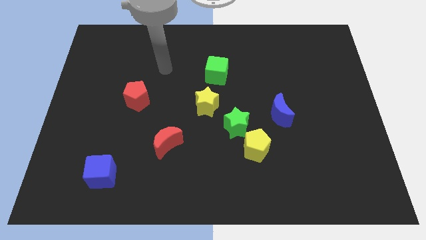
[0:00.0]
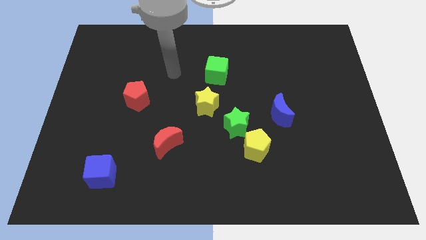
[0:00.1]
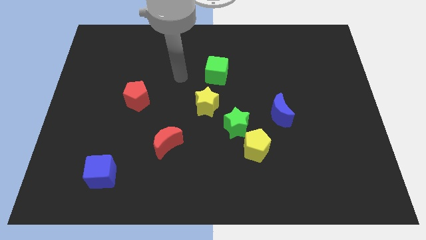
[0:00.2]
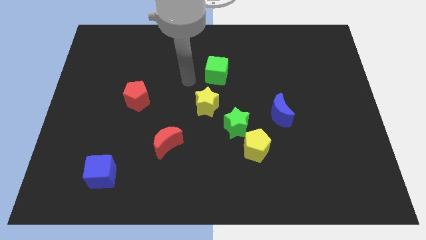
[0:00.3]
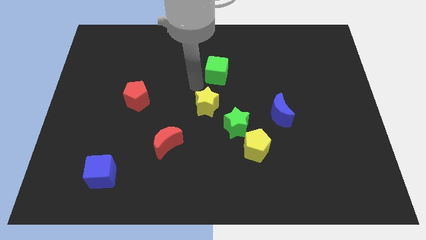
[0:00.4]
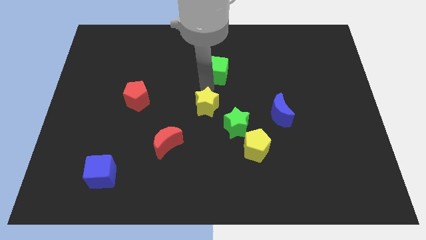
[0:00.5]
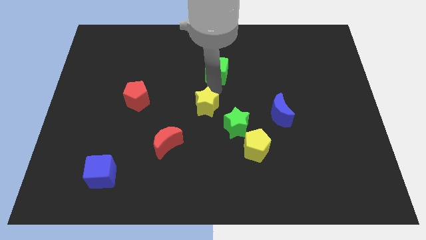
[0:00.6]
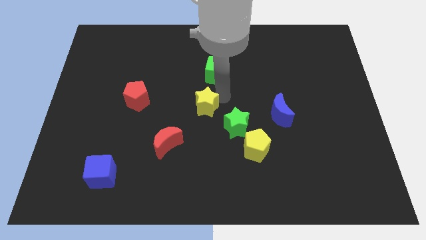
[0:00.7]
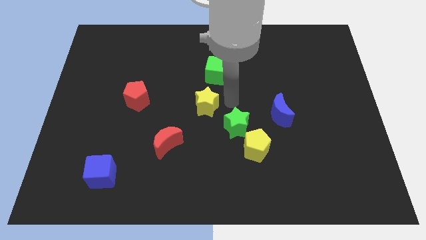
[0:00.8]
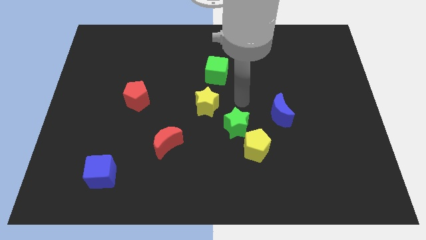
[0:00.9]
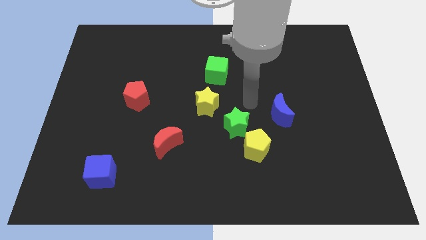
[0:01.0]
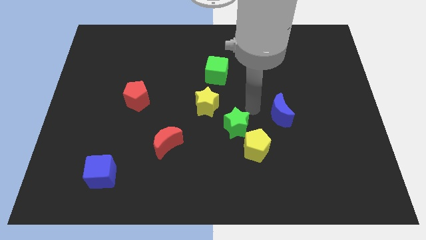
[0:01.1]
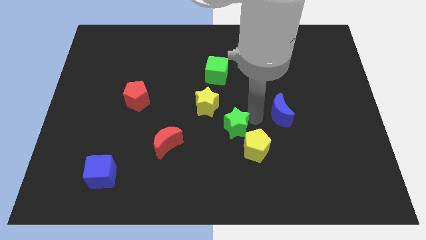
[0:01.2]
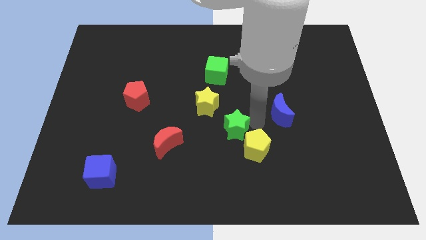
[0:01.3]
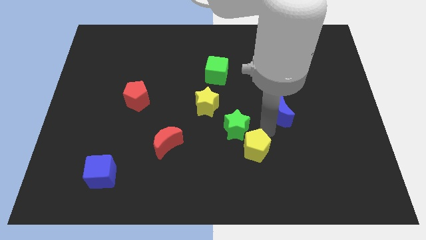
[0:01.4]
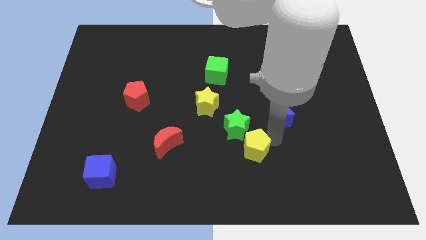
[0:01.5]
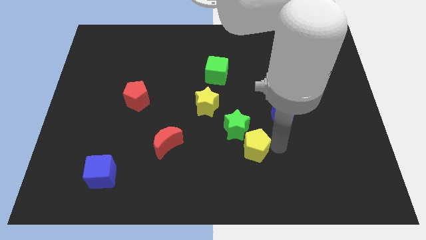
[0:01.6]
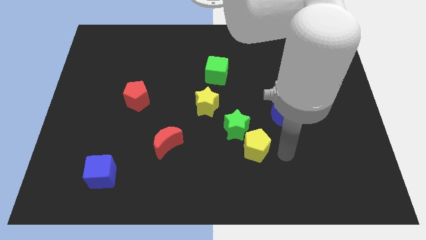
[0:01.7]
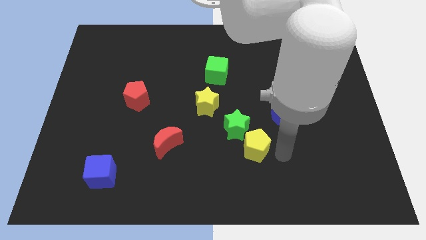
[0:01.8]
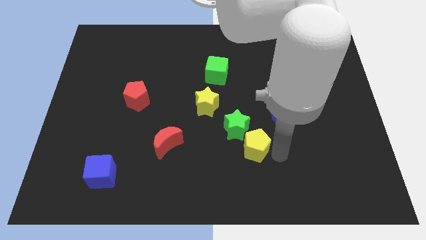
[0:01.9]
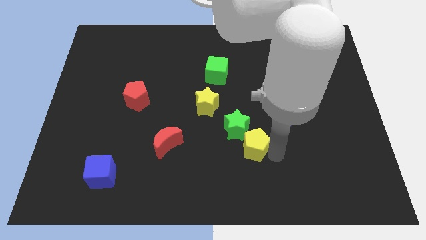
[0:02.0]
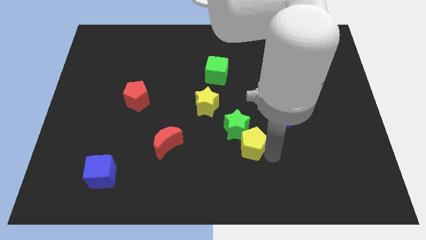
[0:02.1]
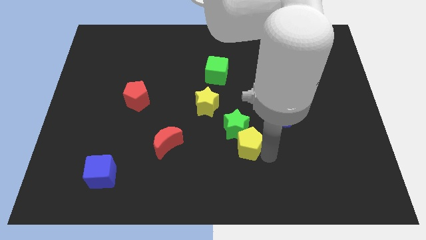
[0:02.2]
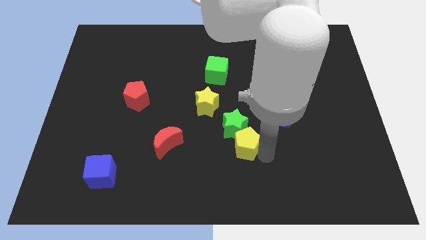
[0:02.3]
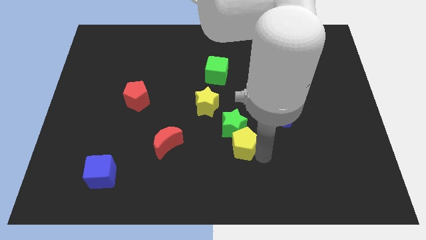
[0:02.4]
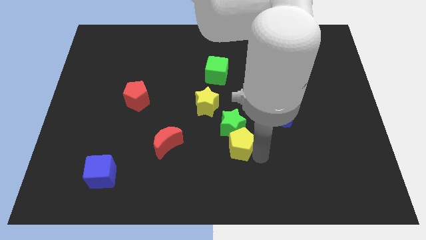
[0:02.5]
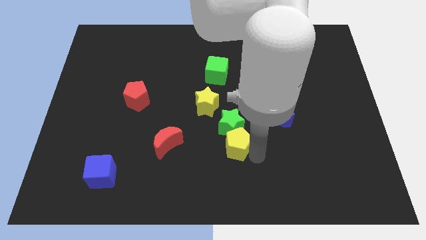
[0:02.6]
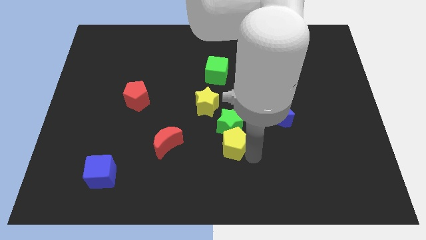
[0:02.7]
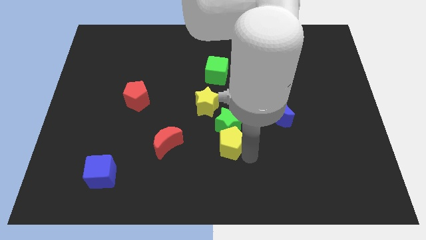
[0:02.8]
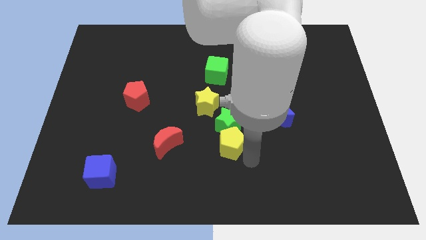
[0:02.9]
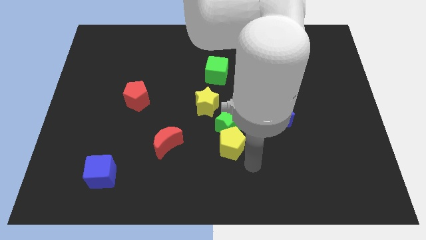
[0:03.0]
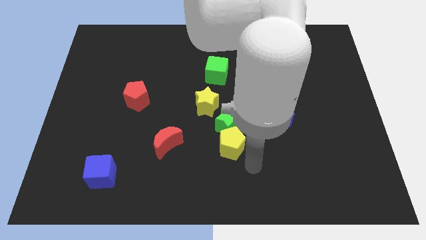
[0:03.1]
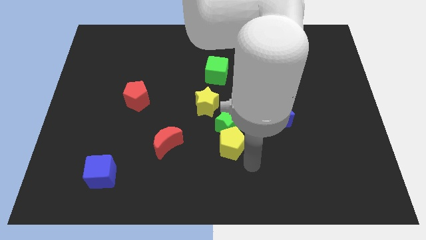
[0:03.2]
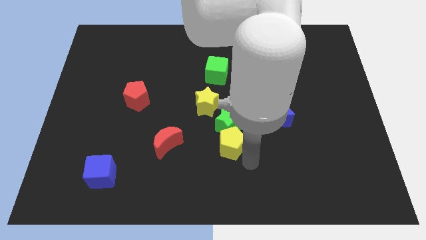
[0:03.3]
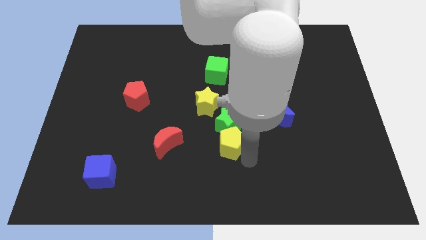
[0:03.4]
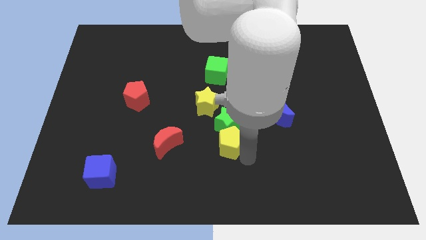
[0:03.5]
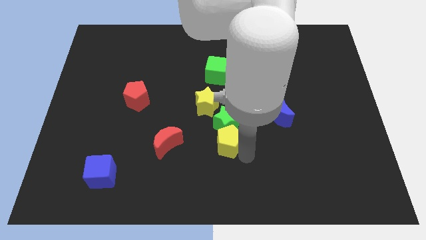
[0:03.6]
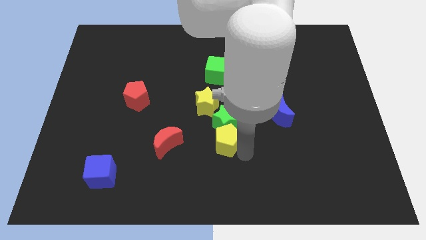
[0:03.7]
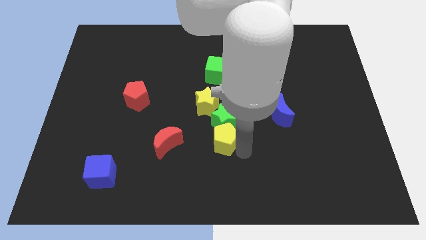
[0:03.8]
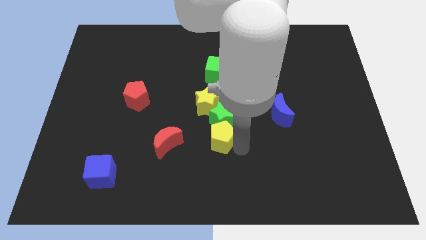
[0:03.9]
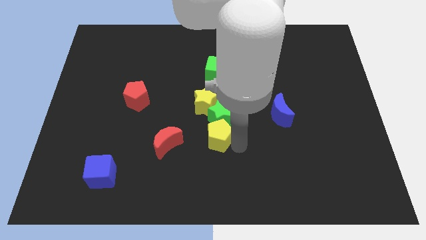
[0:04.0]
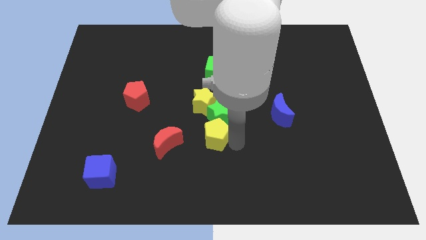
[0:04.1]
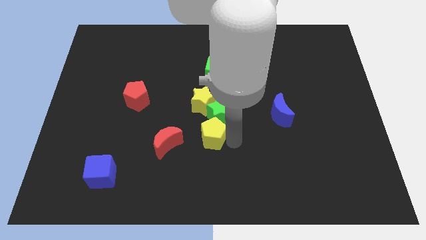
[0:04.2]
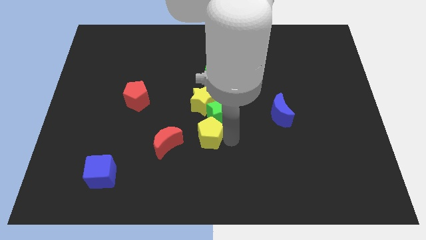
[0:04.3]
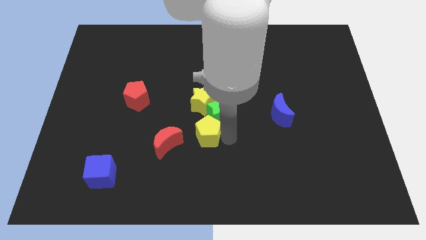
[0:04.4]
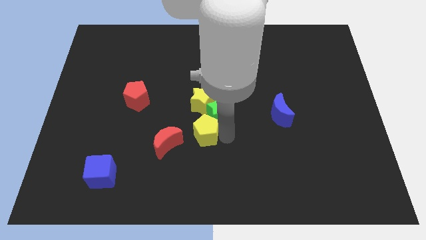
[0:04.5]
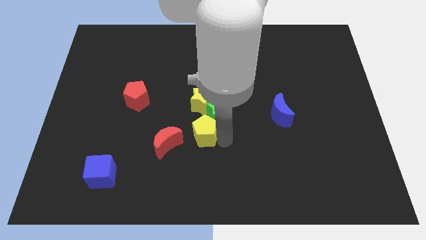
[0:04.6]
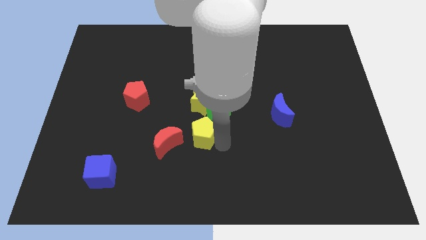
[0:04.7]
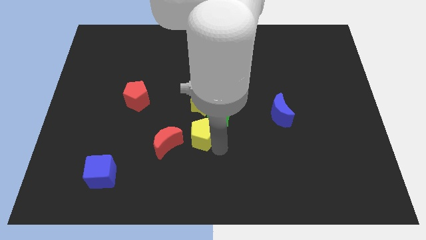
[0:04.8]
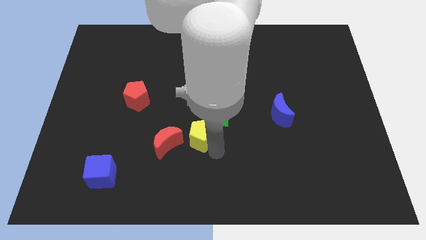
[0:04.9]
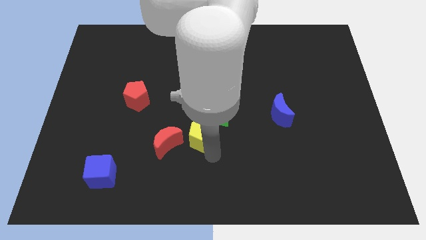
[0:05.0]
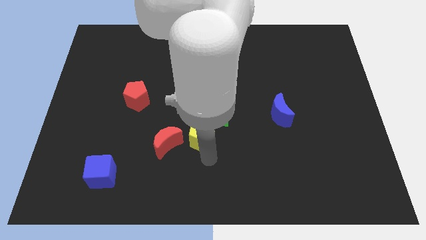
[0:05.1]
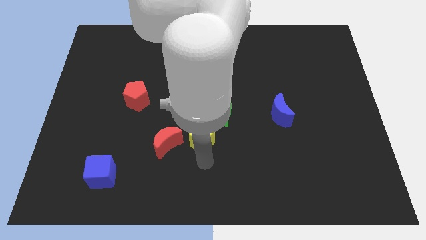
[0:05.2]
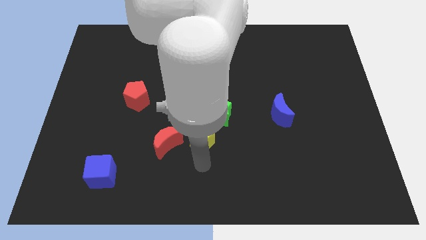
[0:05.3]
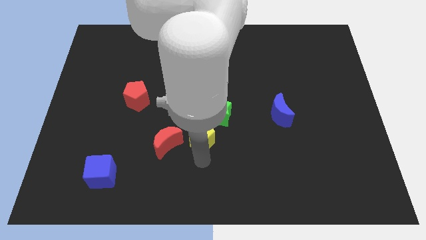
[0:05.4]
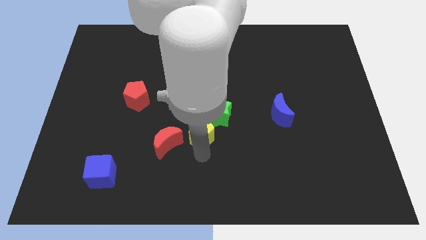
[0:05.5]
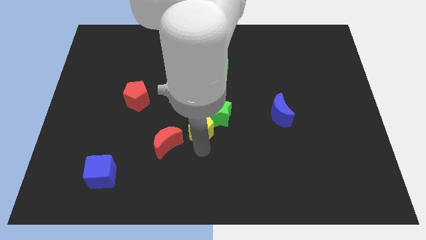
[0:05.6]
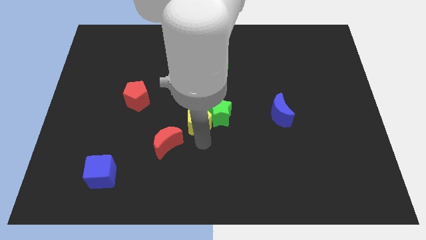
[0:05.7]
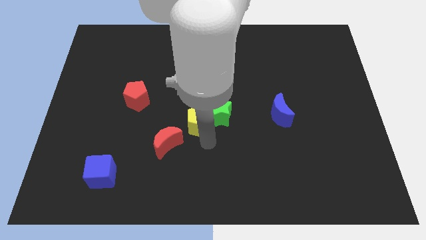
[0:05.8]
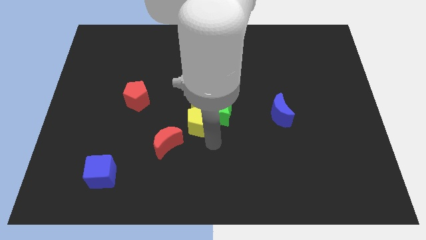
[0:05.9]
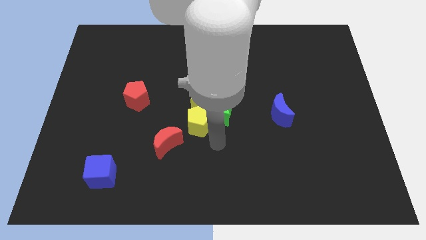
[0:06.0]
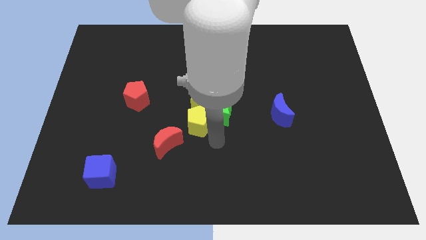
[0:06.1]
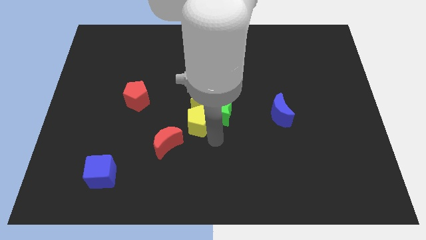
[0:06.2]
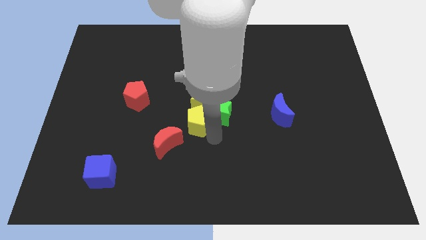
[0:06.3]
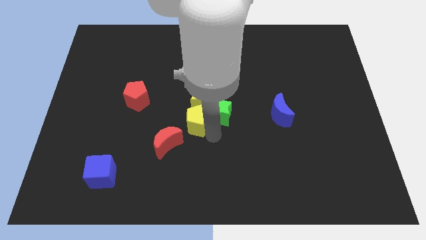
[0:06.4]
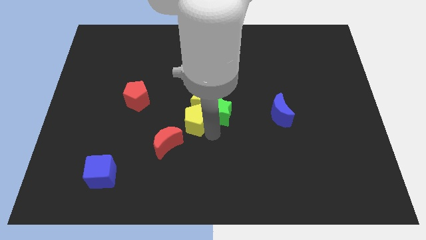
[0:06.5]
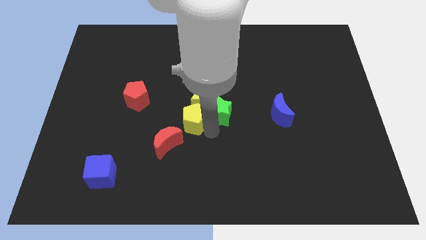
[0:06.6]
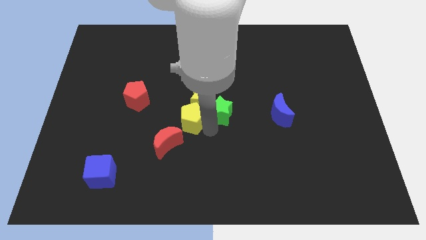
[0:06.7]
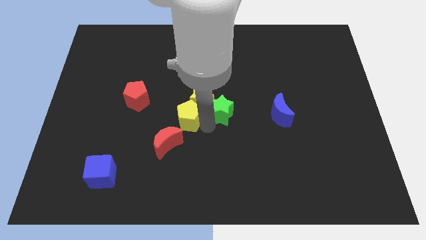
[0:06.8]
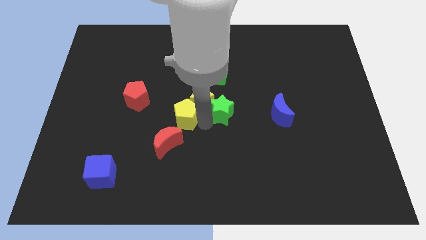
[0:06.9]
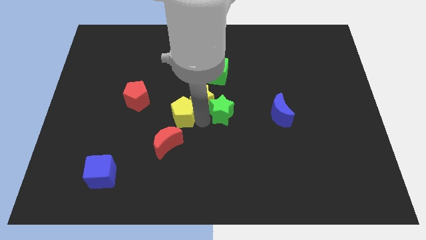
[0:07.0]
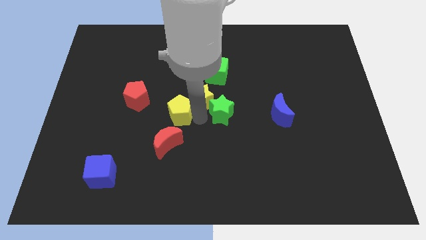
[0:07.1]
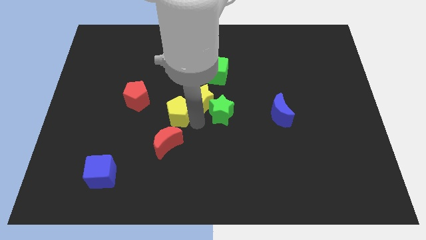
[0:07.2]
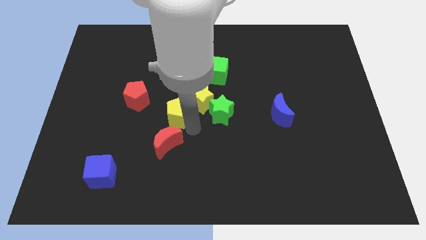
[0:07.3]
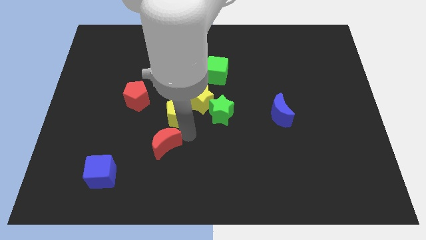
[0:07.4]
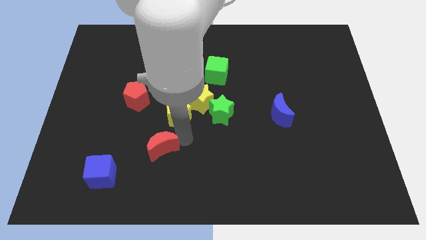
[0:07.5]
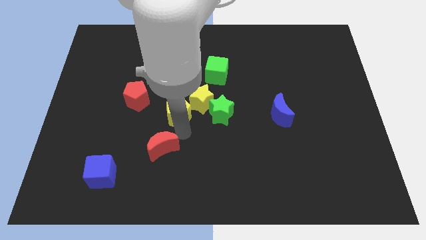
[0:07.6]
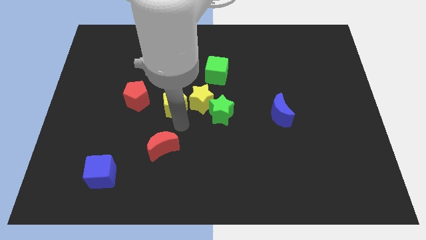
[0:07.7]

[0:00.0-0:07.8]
slide the yellow pentagon diagonally up and left

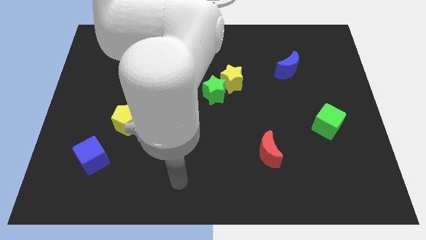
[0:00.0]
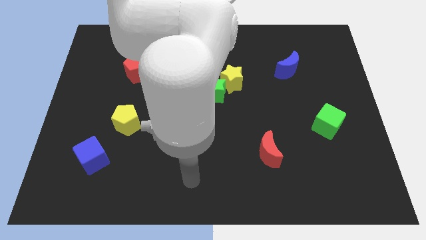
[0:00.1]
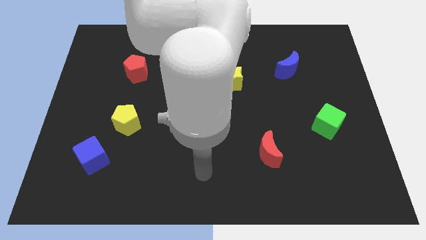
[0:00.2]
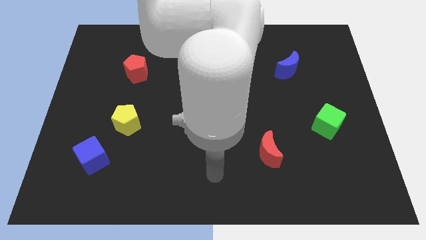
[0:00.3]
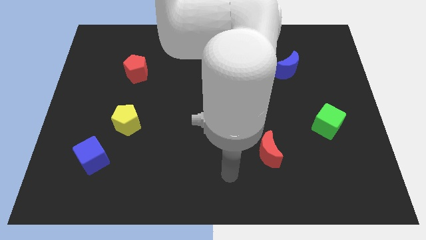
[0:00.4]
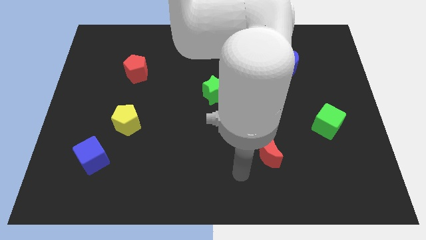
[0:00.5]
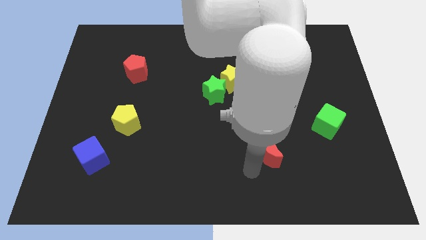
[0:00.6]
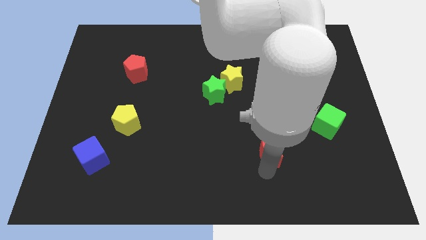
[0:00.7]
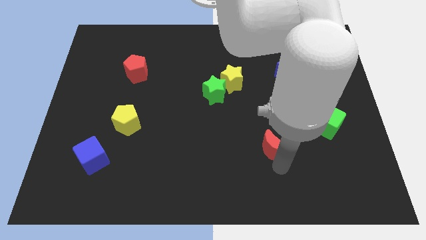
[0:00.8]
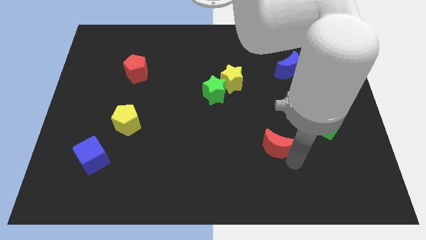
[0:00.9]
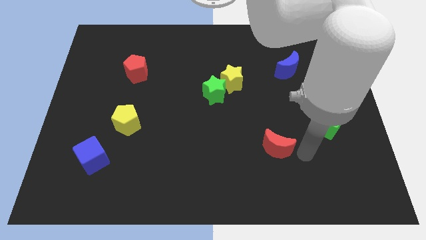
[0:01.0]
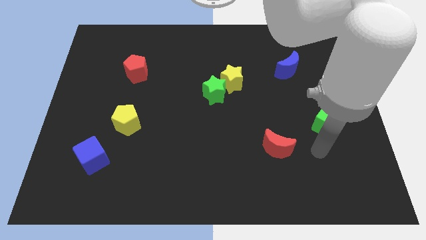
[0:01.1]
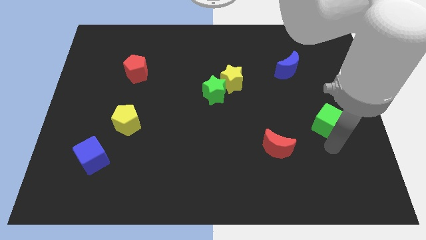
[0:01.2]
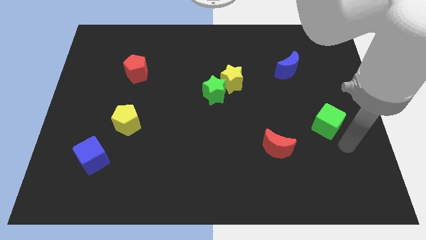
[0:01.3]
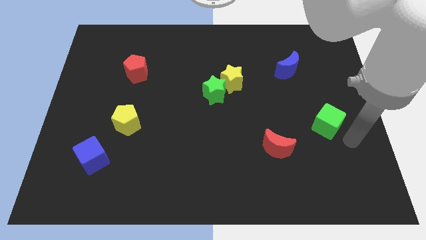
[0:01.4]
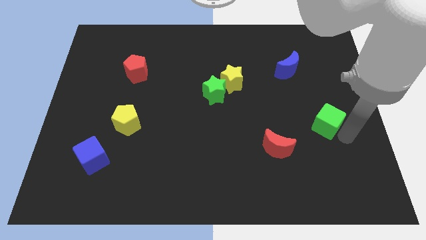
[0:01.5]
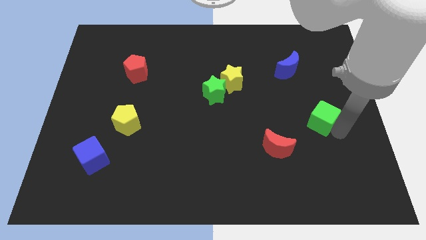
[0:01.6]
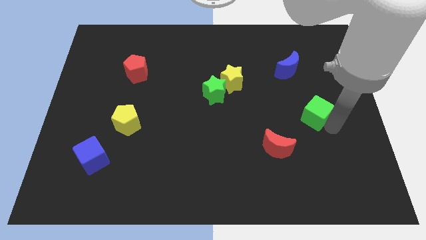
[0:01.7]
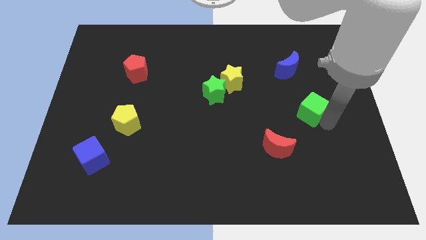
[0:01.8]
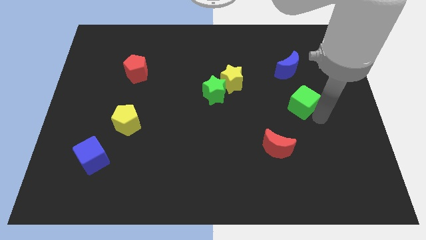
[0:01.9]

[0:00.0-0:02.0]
slide the green cube a little diagonally upwards and left
